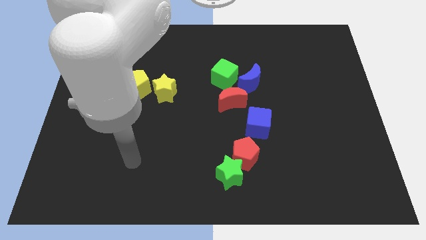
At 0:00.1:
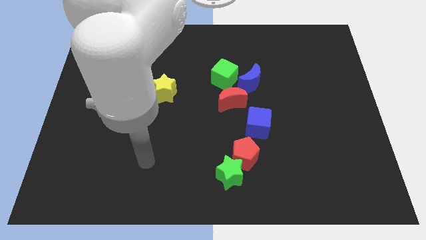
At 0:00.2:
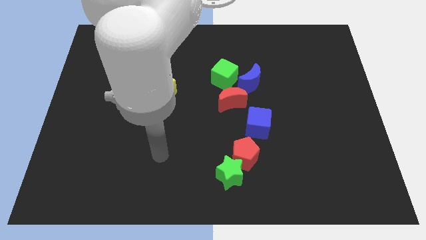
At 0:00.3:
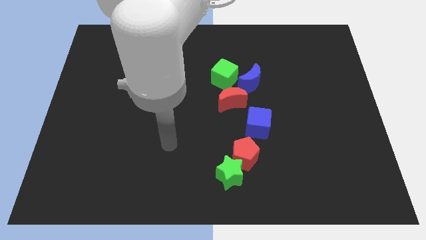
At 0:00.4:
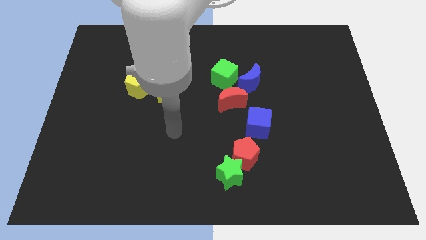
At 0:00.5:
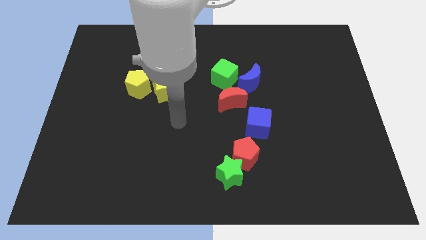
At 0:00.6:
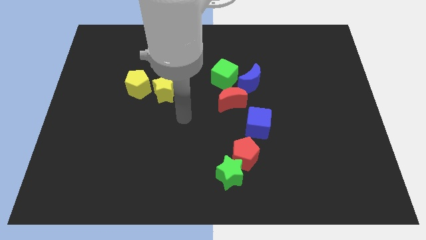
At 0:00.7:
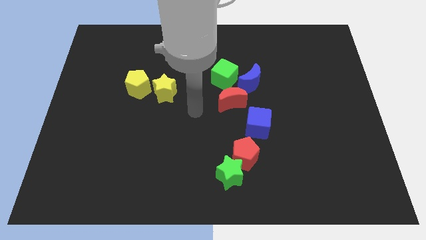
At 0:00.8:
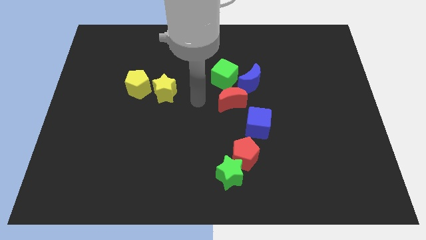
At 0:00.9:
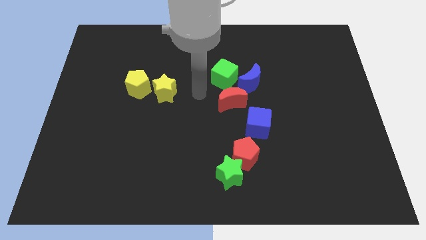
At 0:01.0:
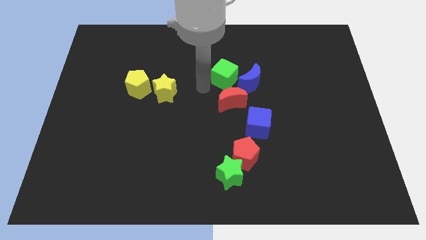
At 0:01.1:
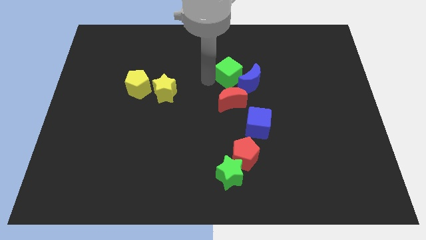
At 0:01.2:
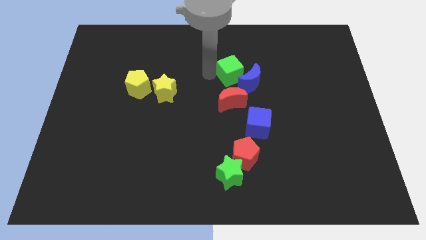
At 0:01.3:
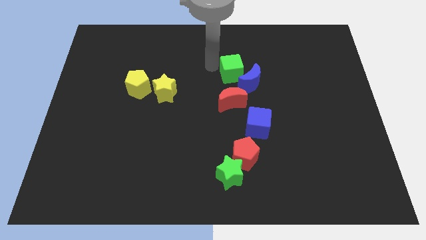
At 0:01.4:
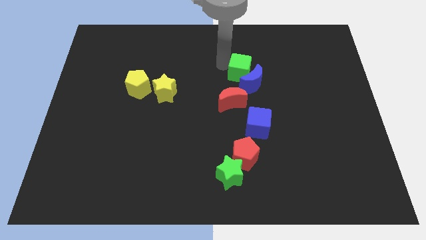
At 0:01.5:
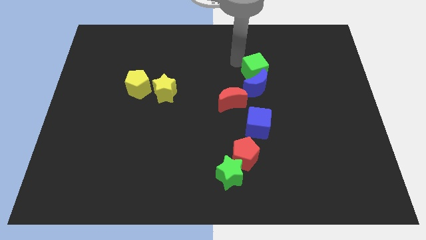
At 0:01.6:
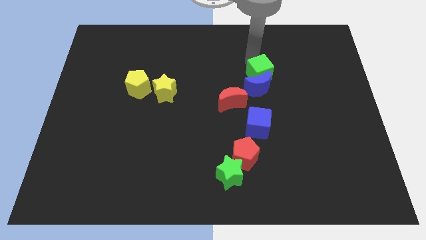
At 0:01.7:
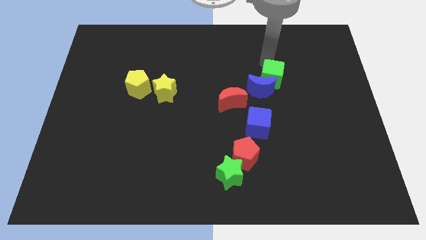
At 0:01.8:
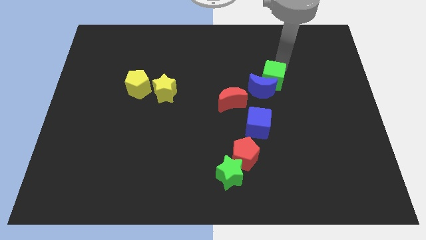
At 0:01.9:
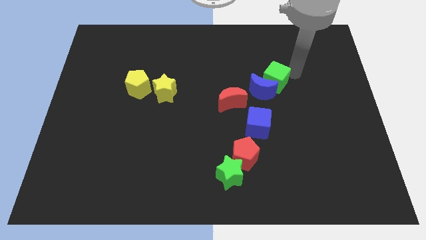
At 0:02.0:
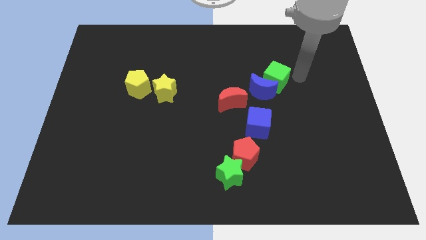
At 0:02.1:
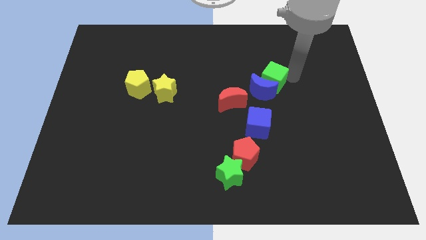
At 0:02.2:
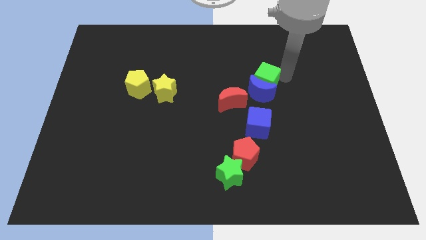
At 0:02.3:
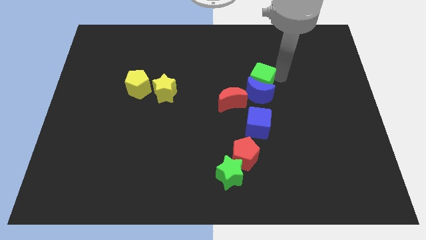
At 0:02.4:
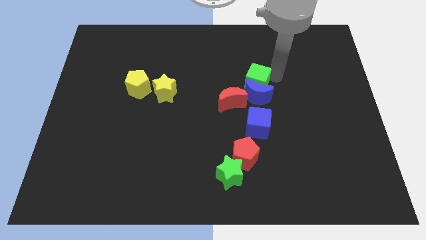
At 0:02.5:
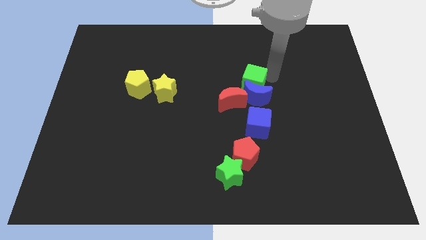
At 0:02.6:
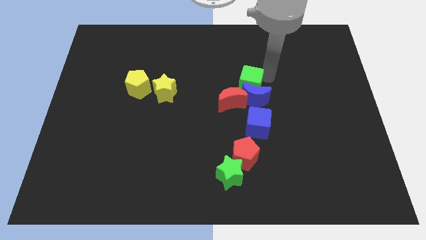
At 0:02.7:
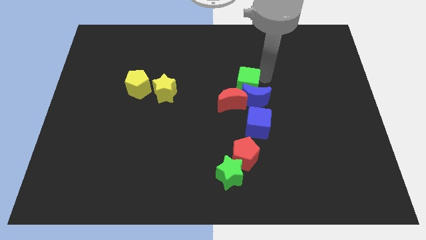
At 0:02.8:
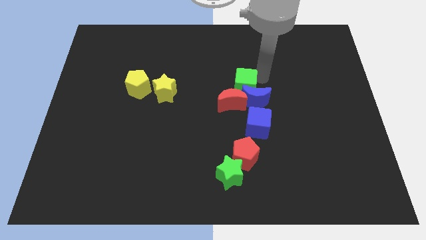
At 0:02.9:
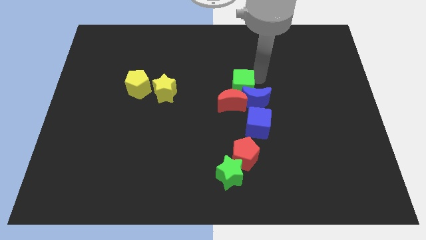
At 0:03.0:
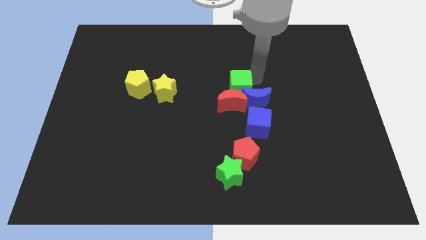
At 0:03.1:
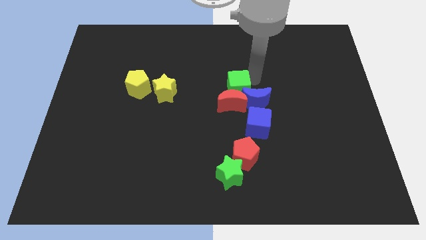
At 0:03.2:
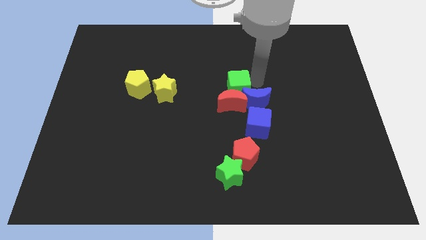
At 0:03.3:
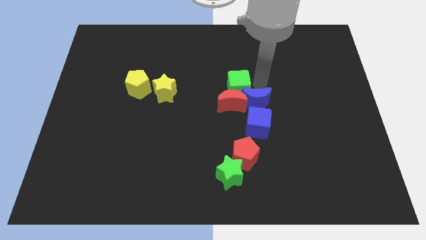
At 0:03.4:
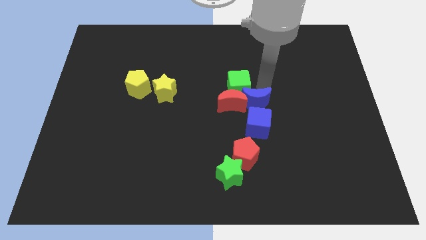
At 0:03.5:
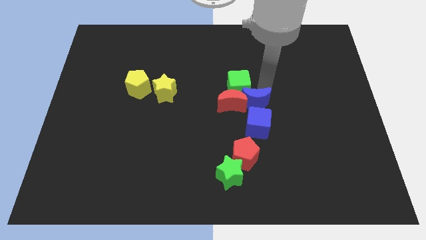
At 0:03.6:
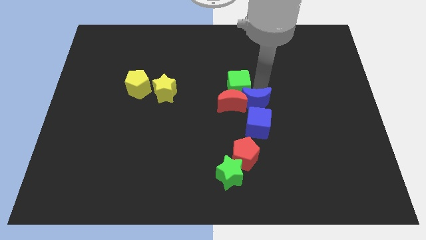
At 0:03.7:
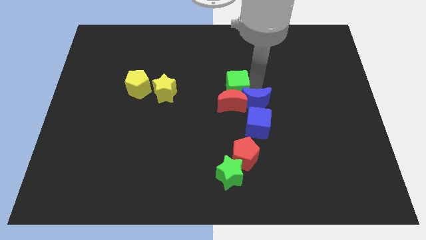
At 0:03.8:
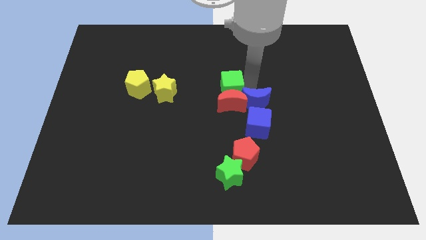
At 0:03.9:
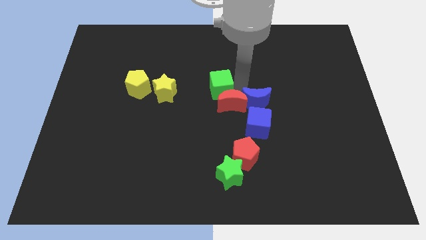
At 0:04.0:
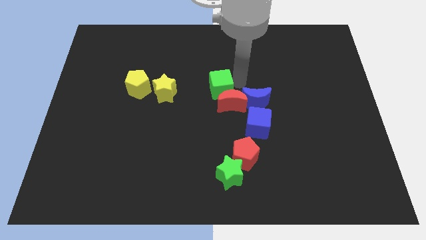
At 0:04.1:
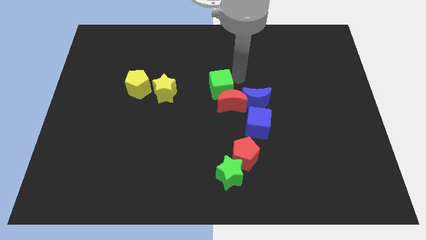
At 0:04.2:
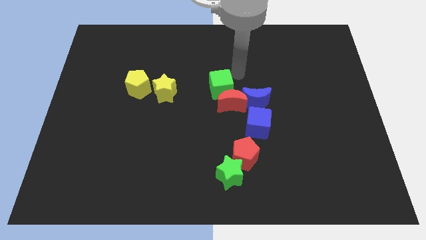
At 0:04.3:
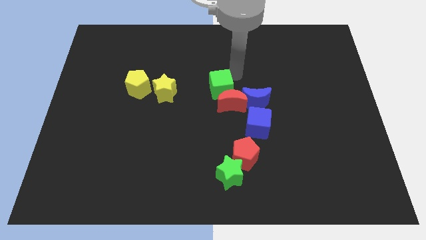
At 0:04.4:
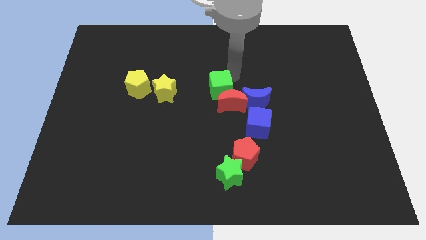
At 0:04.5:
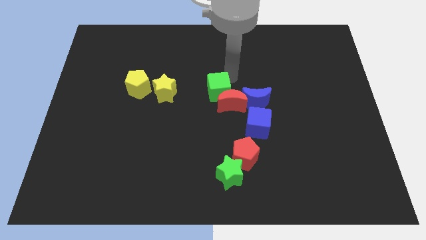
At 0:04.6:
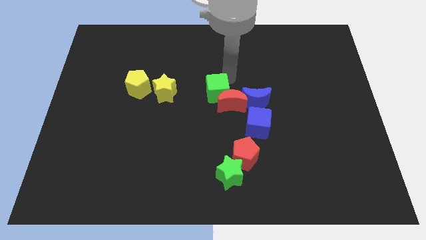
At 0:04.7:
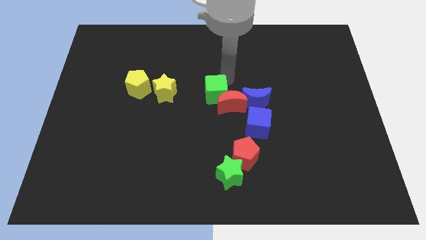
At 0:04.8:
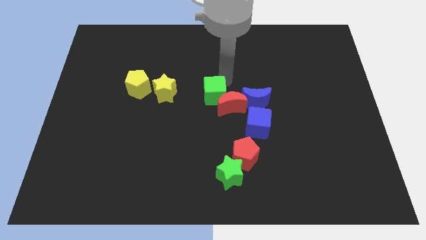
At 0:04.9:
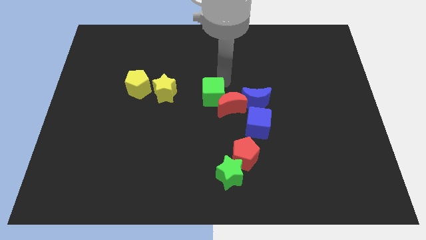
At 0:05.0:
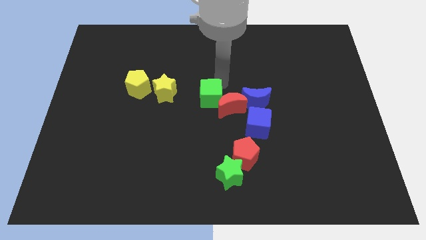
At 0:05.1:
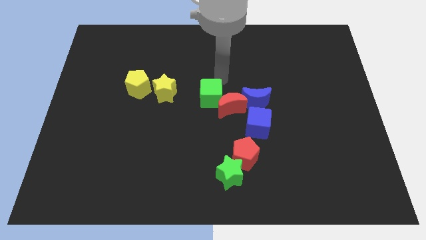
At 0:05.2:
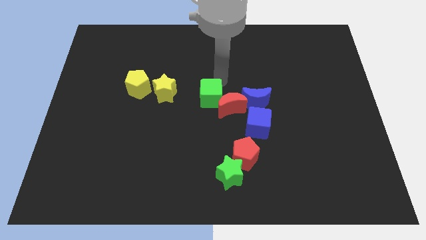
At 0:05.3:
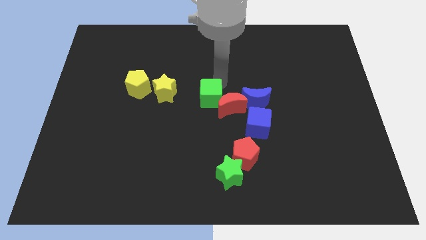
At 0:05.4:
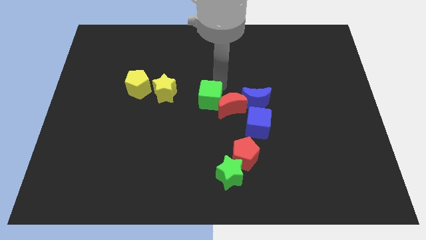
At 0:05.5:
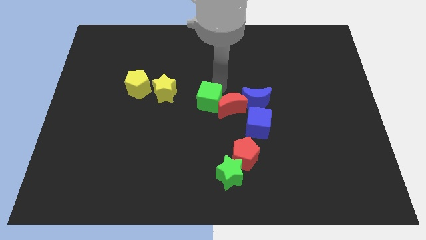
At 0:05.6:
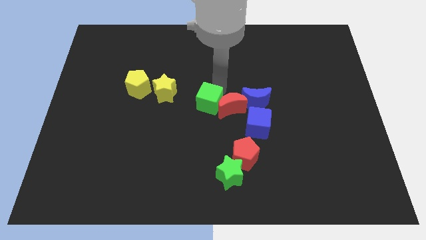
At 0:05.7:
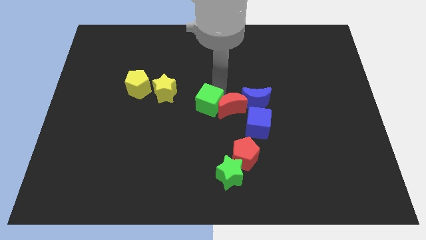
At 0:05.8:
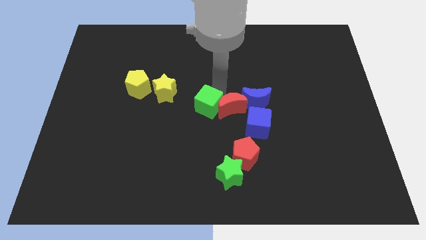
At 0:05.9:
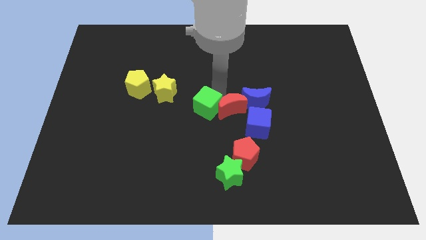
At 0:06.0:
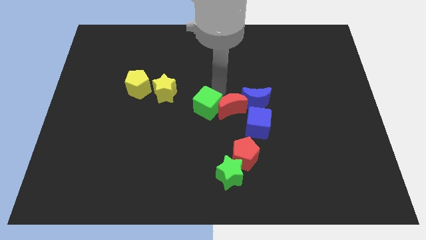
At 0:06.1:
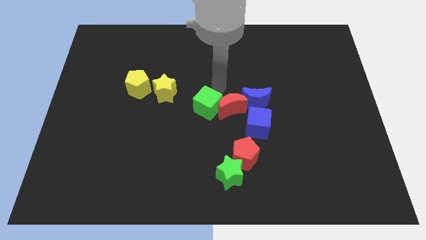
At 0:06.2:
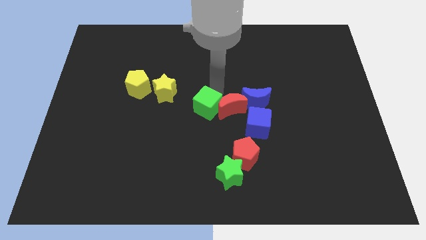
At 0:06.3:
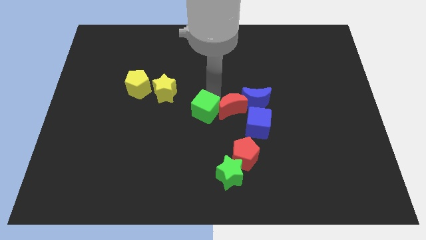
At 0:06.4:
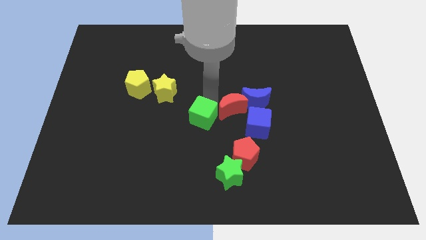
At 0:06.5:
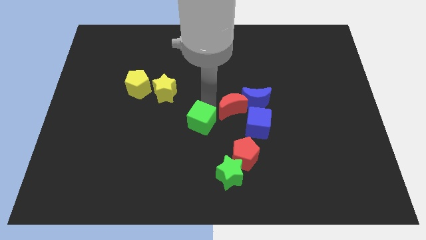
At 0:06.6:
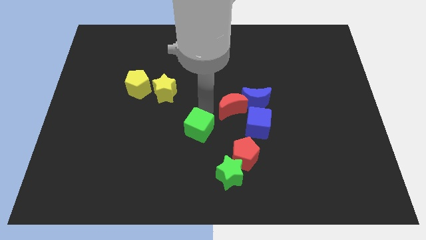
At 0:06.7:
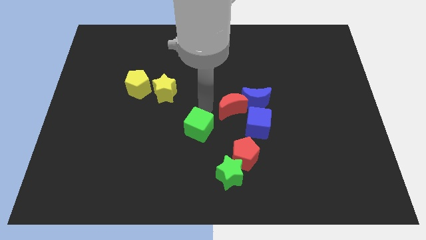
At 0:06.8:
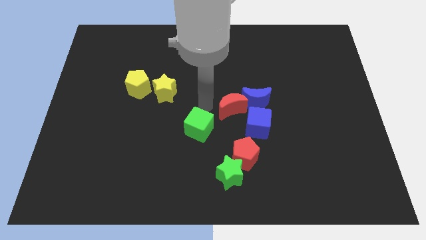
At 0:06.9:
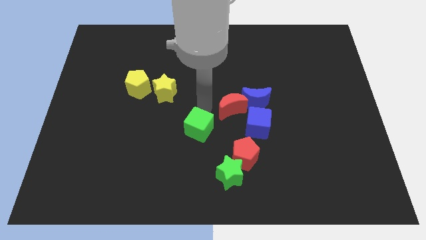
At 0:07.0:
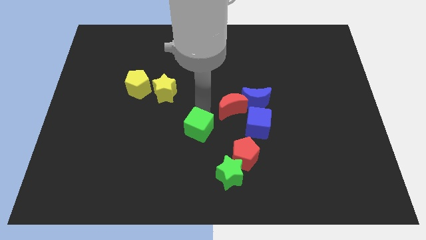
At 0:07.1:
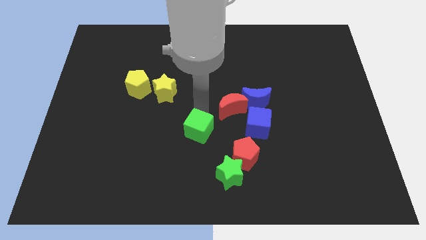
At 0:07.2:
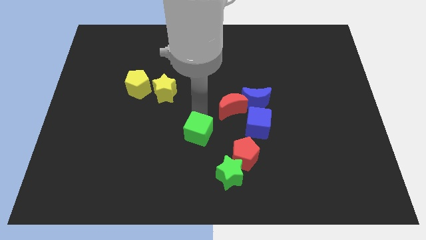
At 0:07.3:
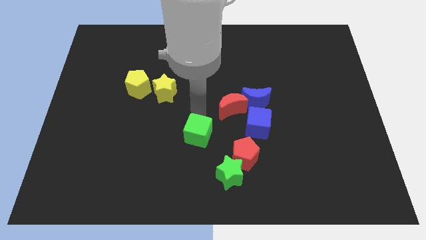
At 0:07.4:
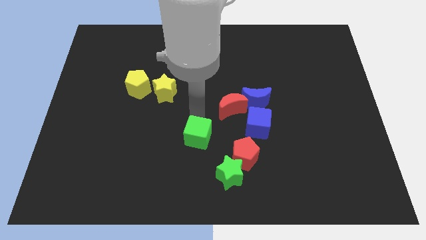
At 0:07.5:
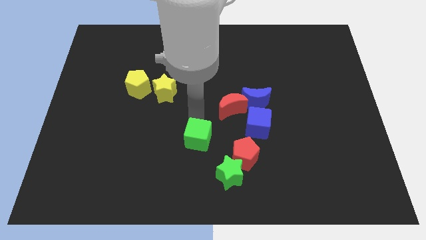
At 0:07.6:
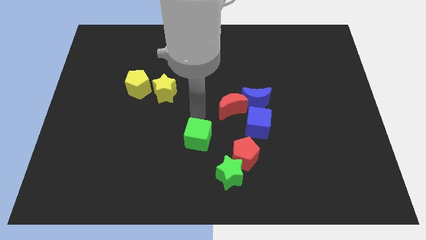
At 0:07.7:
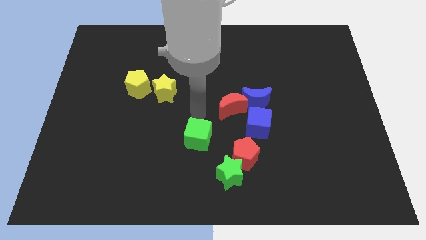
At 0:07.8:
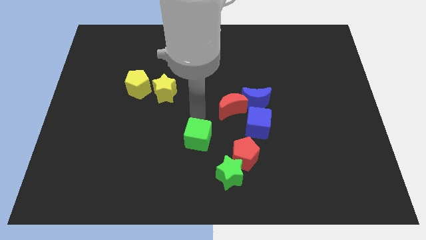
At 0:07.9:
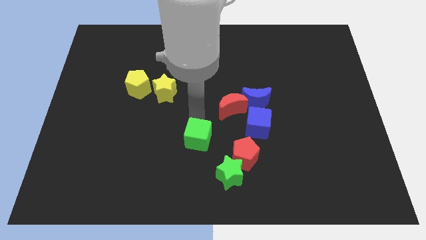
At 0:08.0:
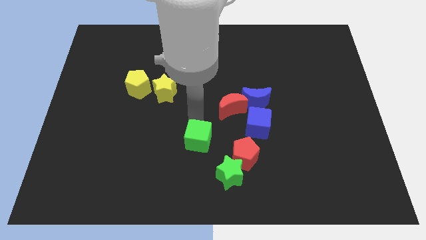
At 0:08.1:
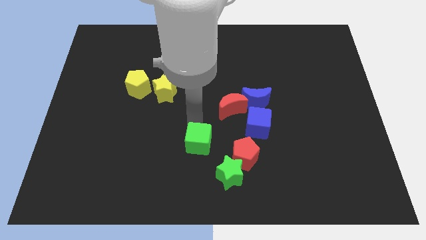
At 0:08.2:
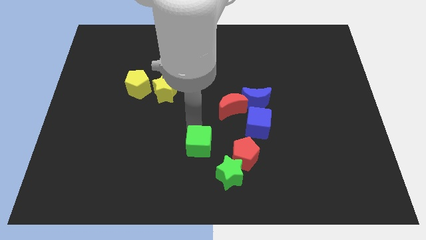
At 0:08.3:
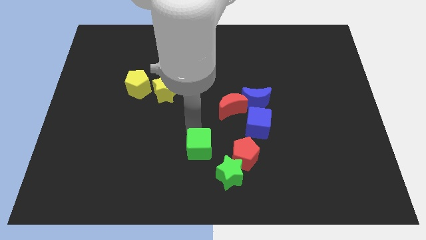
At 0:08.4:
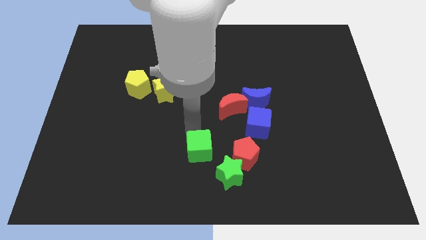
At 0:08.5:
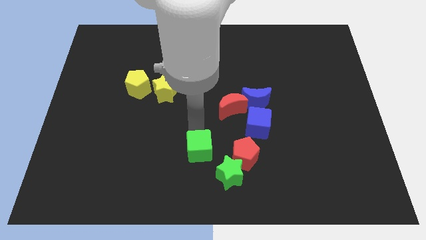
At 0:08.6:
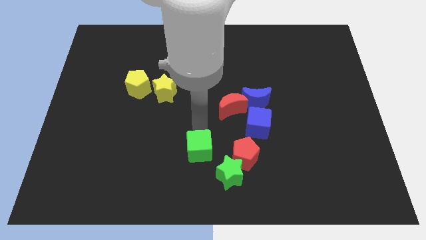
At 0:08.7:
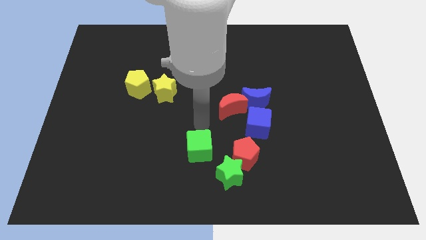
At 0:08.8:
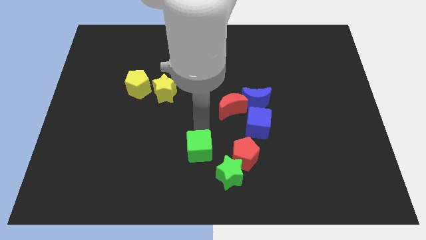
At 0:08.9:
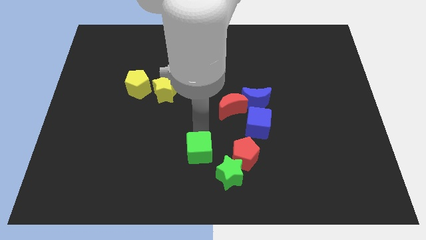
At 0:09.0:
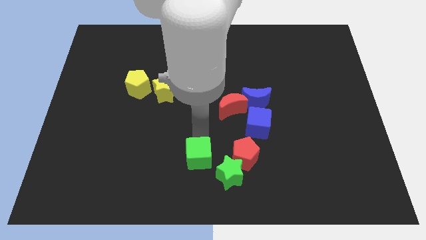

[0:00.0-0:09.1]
slide the green cube to the bottom
